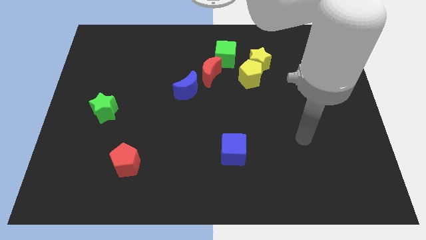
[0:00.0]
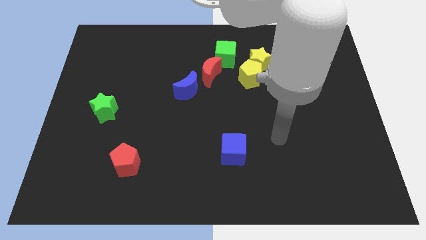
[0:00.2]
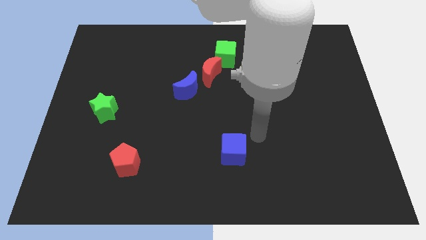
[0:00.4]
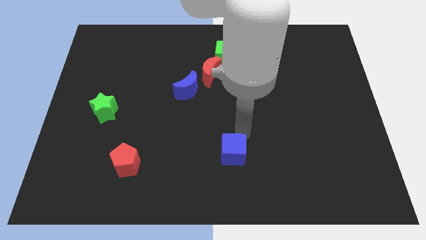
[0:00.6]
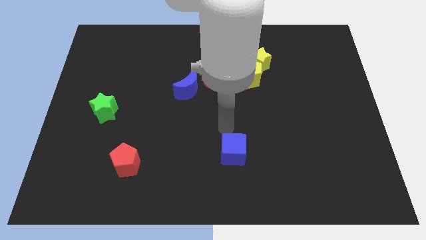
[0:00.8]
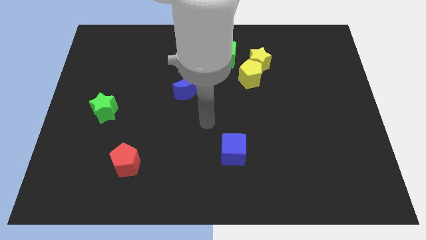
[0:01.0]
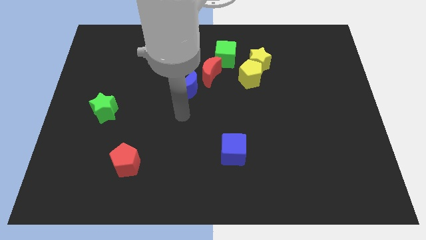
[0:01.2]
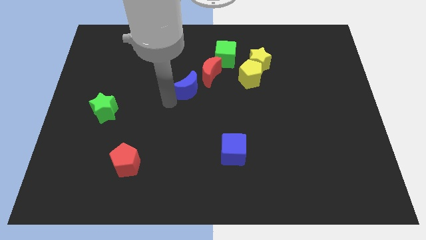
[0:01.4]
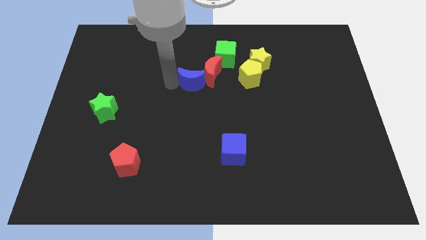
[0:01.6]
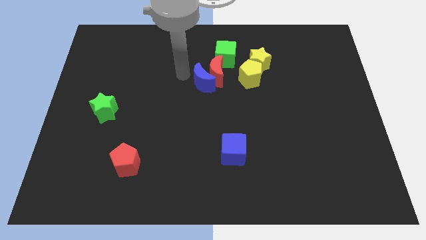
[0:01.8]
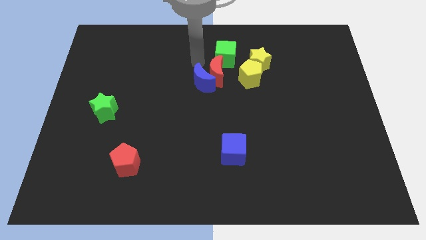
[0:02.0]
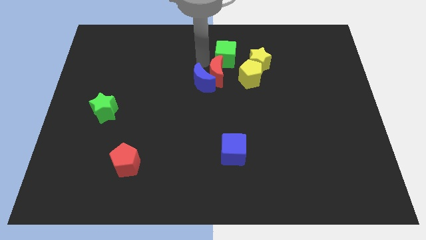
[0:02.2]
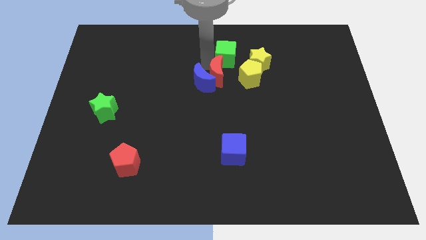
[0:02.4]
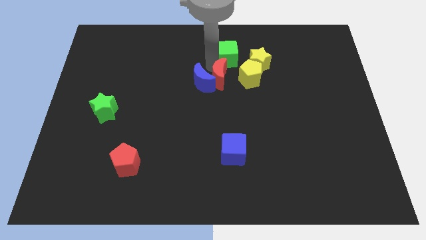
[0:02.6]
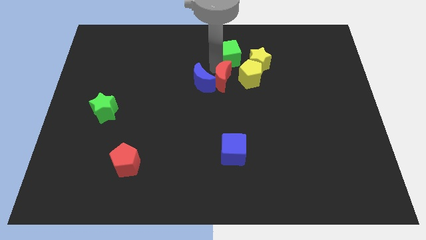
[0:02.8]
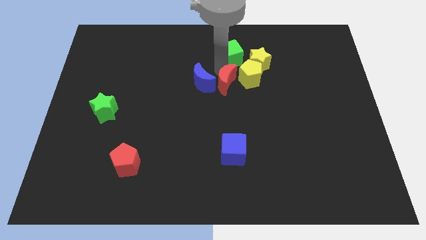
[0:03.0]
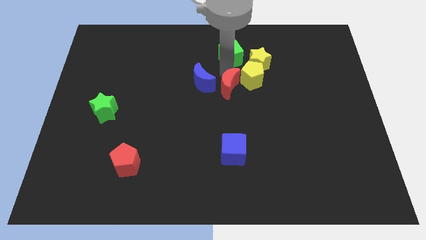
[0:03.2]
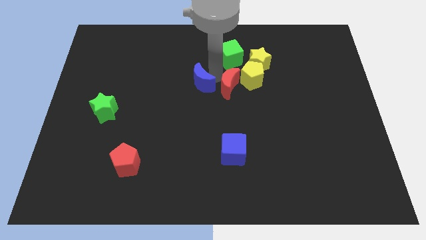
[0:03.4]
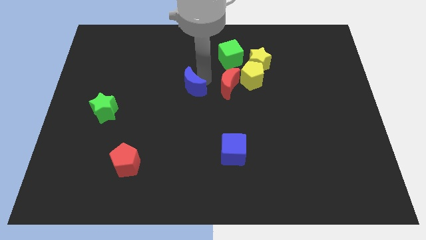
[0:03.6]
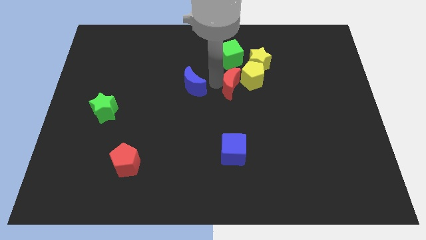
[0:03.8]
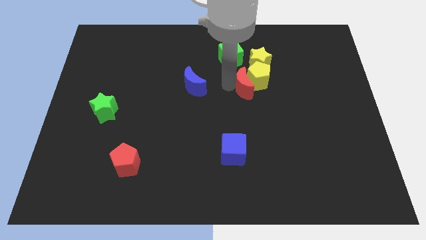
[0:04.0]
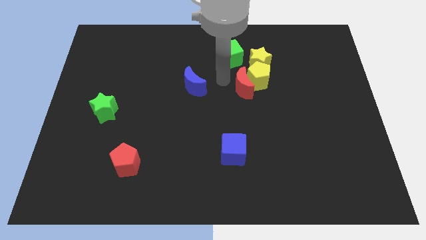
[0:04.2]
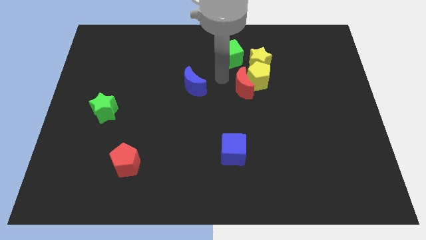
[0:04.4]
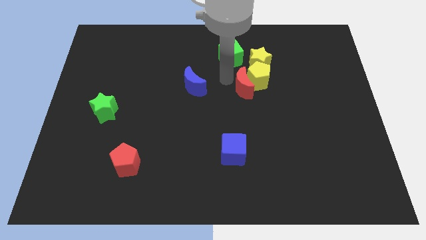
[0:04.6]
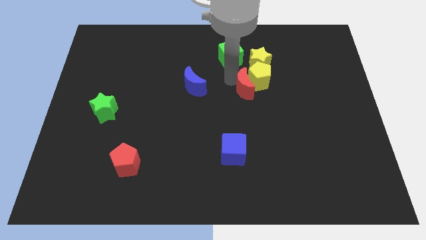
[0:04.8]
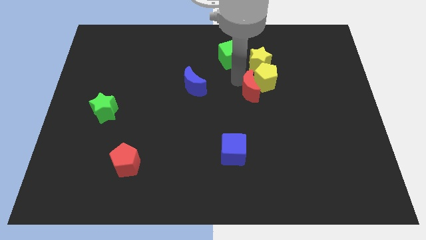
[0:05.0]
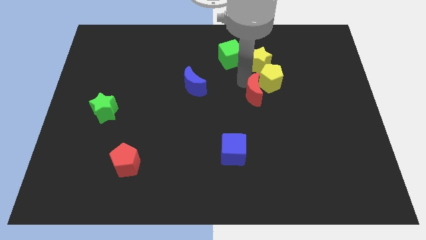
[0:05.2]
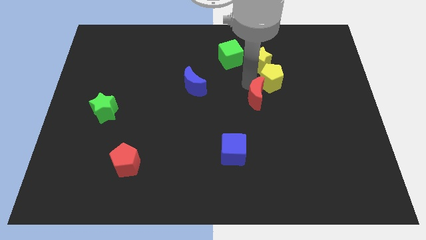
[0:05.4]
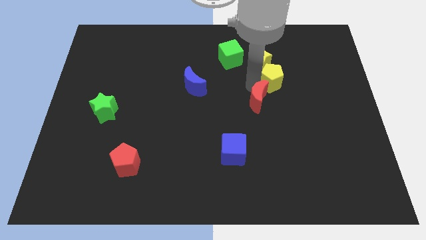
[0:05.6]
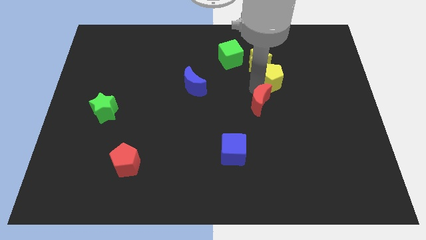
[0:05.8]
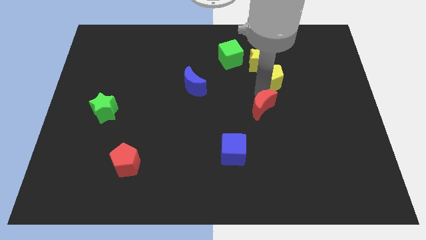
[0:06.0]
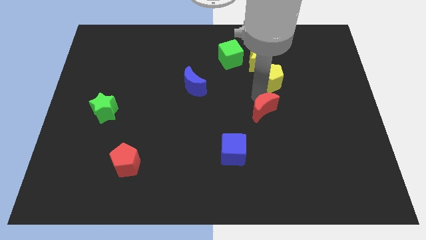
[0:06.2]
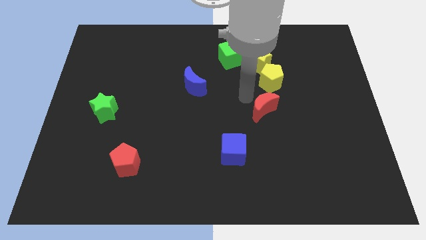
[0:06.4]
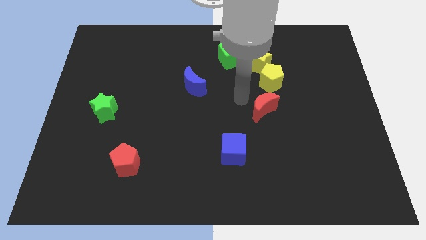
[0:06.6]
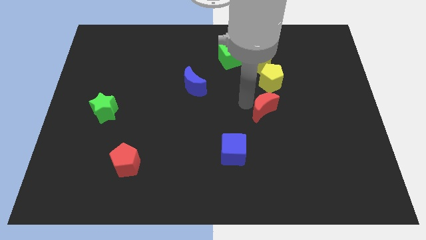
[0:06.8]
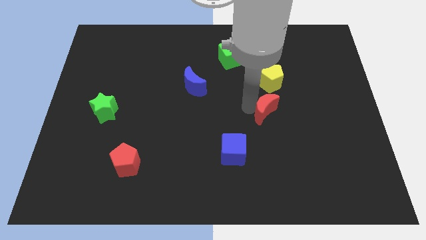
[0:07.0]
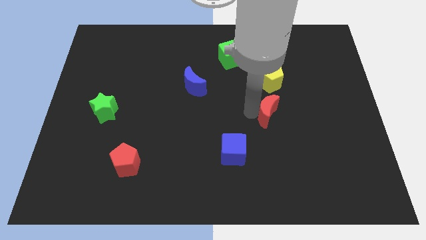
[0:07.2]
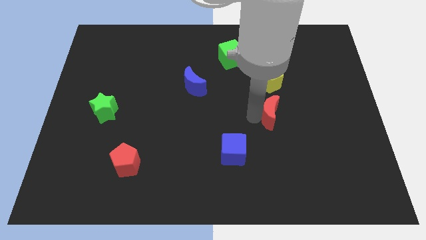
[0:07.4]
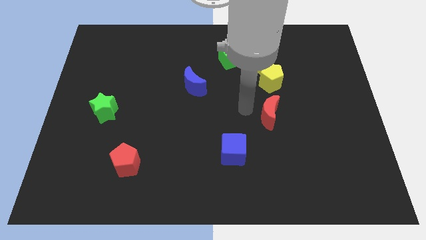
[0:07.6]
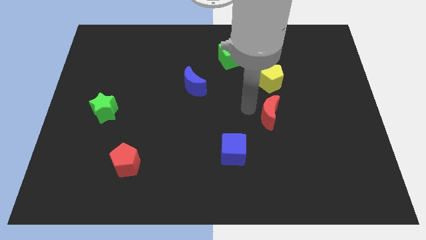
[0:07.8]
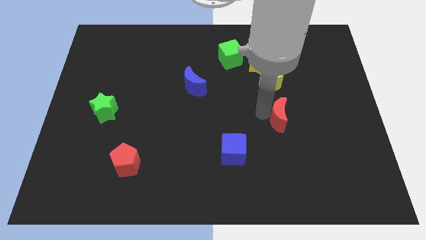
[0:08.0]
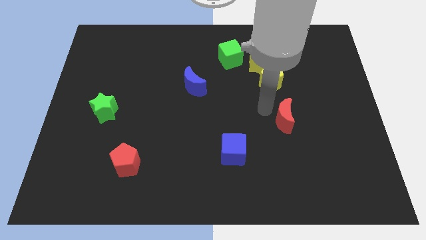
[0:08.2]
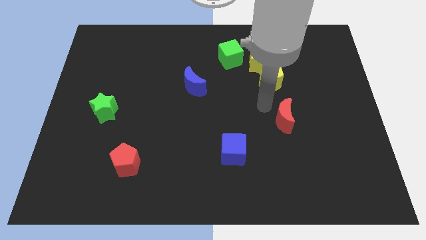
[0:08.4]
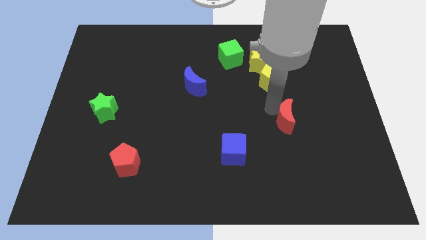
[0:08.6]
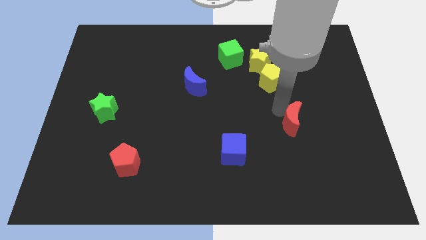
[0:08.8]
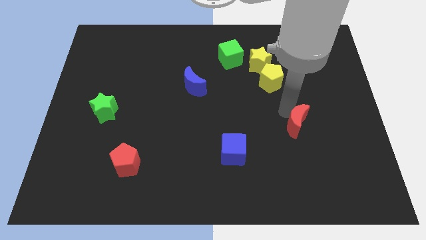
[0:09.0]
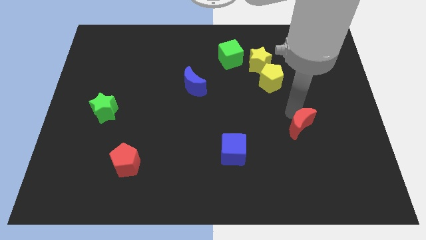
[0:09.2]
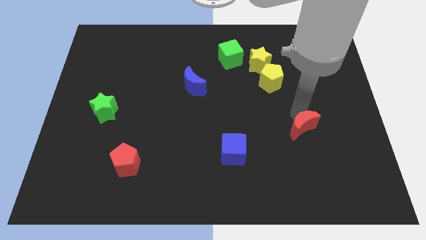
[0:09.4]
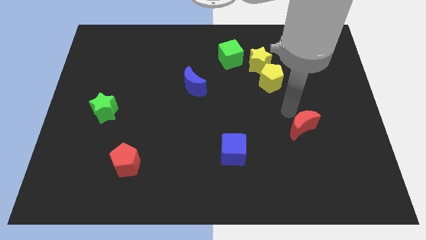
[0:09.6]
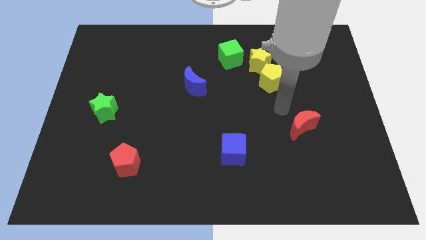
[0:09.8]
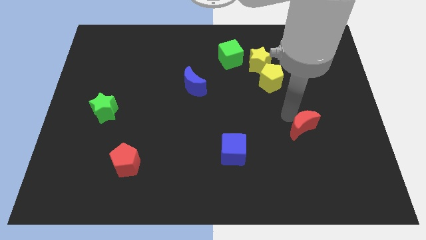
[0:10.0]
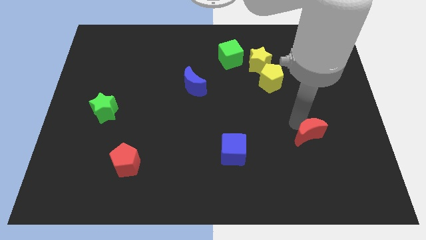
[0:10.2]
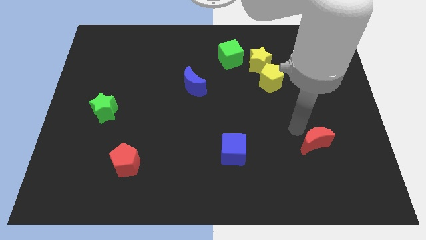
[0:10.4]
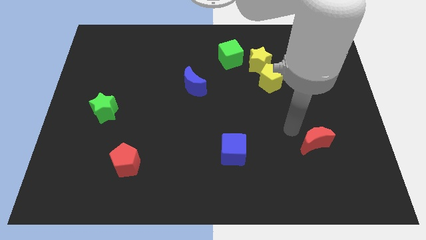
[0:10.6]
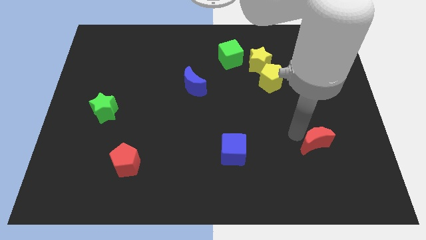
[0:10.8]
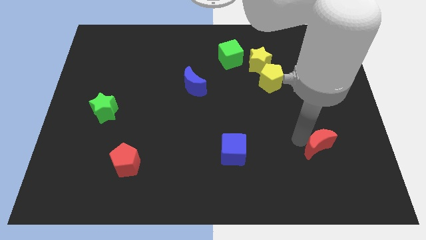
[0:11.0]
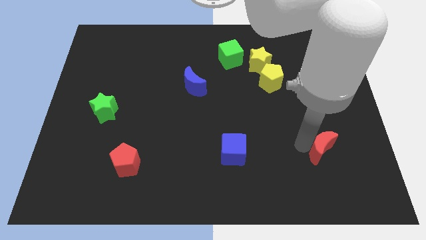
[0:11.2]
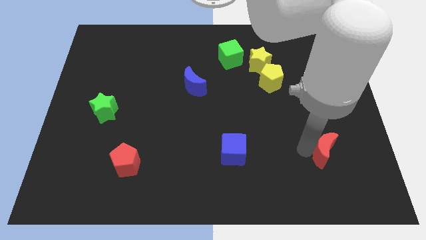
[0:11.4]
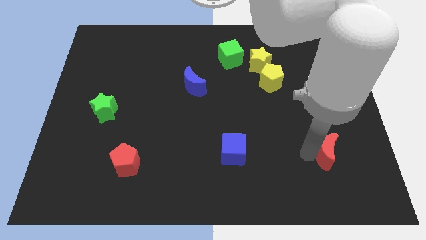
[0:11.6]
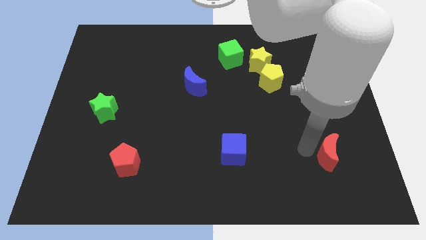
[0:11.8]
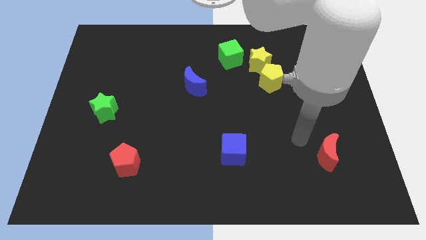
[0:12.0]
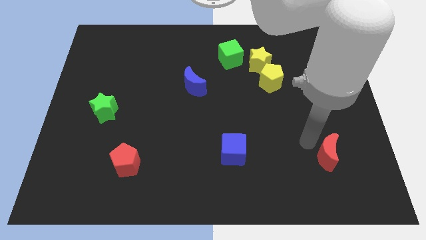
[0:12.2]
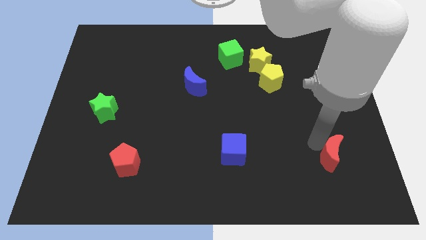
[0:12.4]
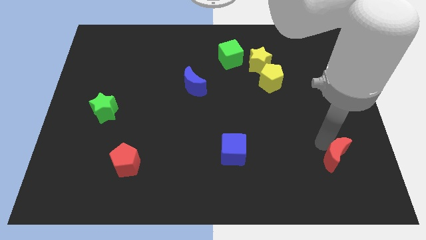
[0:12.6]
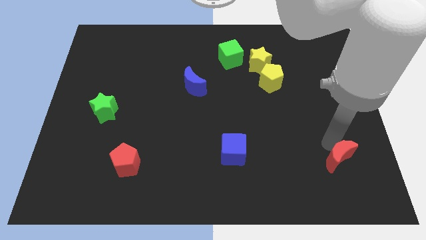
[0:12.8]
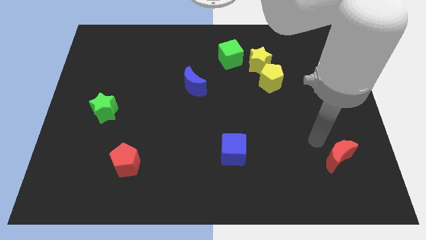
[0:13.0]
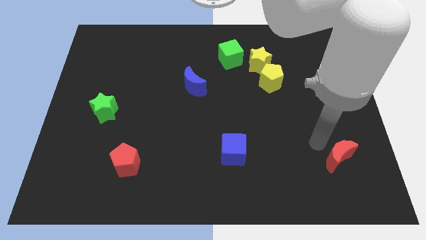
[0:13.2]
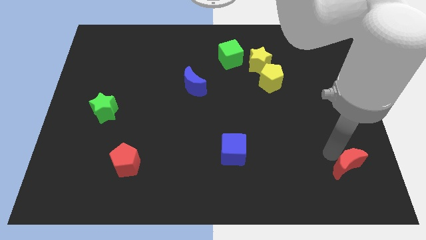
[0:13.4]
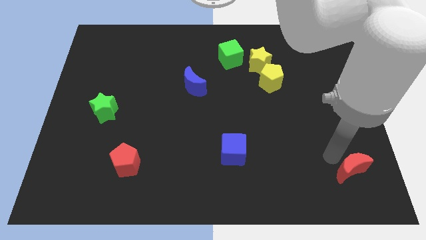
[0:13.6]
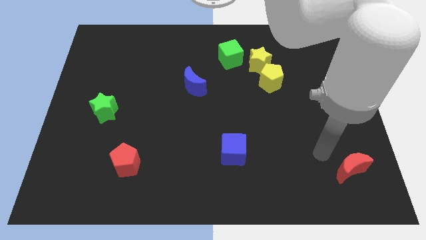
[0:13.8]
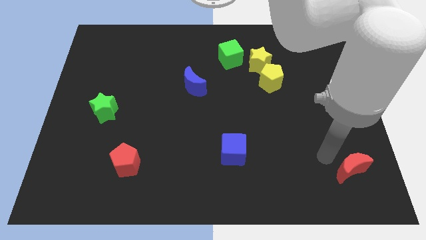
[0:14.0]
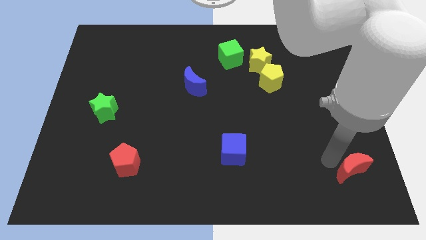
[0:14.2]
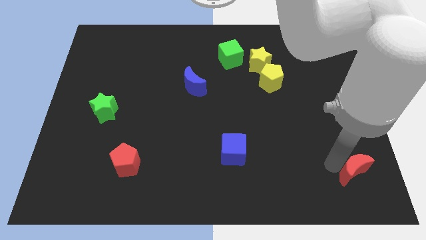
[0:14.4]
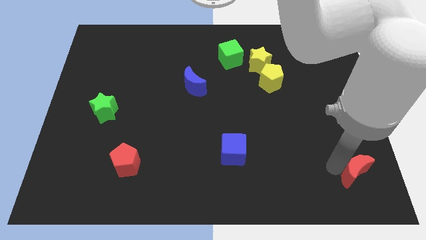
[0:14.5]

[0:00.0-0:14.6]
push the red moon to the lower right corner
